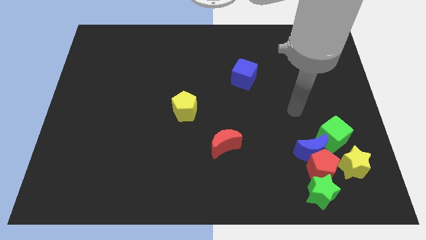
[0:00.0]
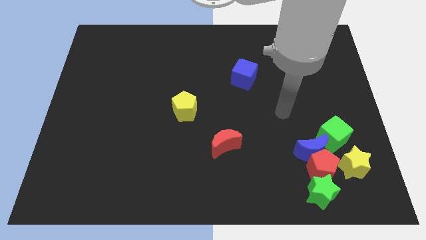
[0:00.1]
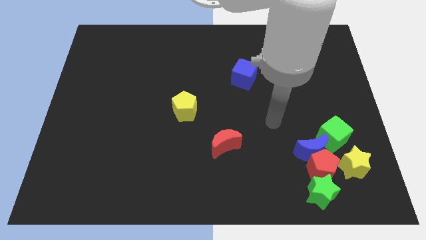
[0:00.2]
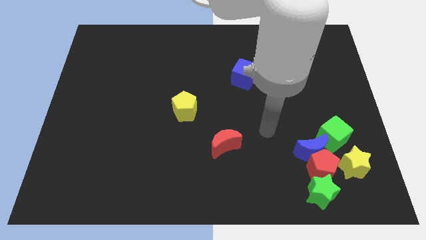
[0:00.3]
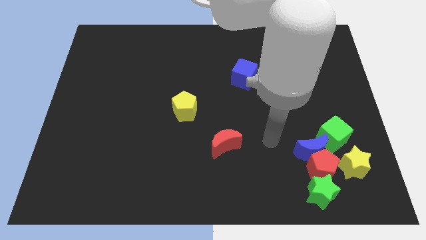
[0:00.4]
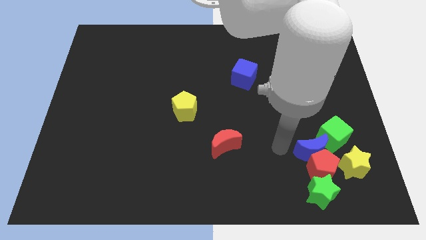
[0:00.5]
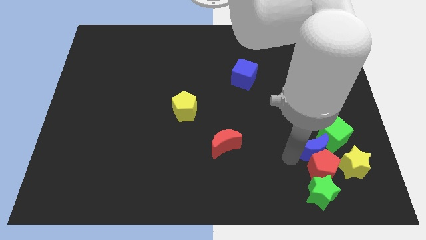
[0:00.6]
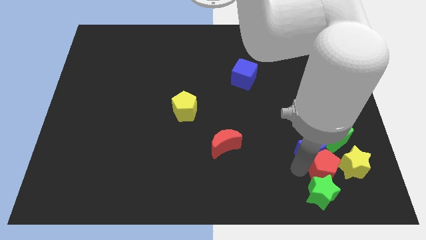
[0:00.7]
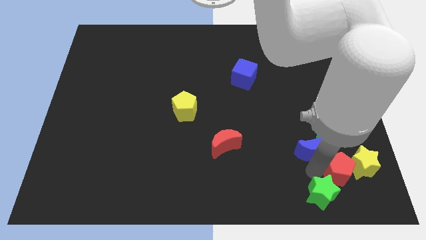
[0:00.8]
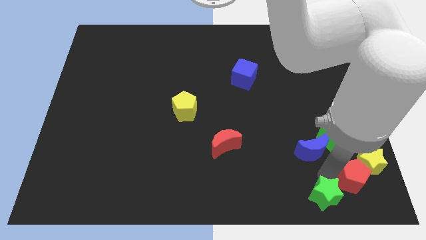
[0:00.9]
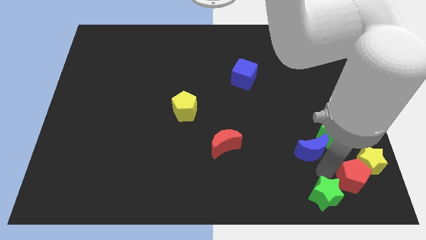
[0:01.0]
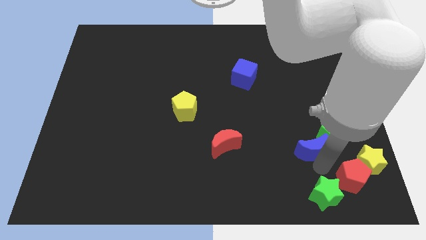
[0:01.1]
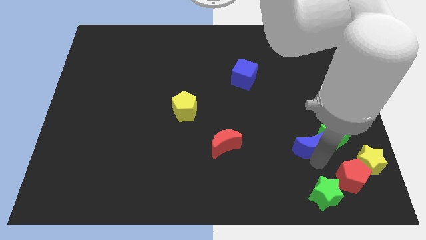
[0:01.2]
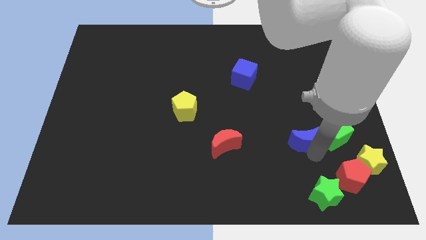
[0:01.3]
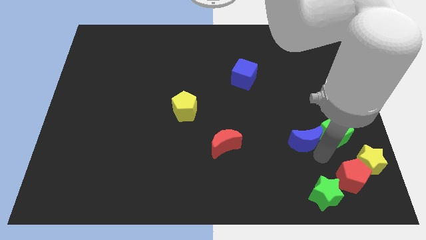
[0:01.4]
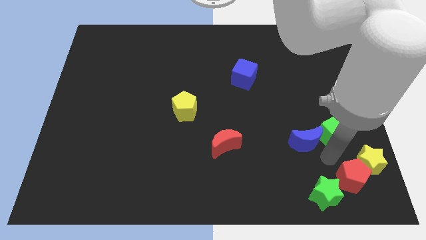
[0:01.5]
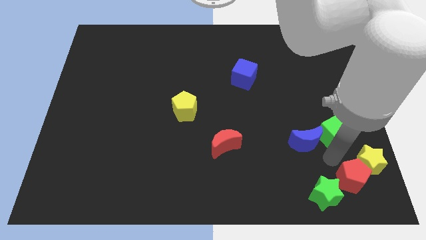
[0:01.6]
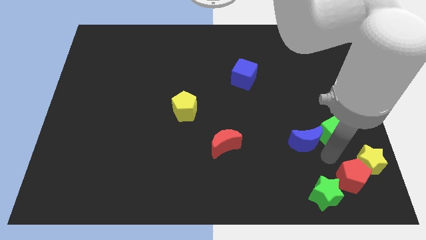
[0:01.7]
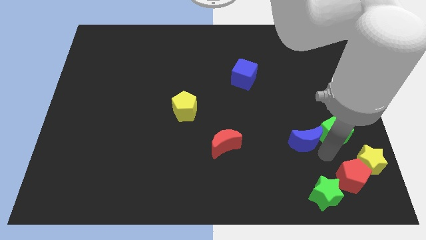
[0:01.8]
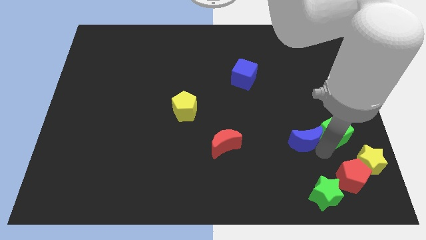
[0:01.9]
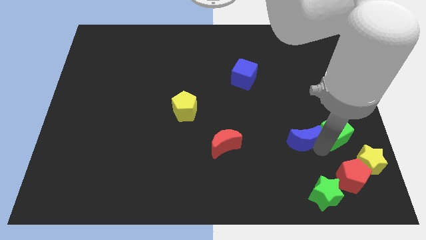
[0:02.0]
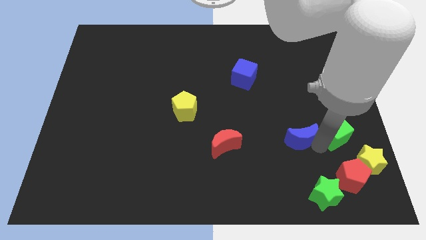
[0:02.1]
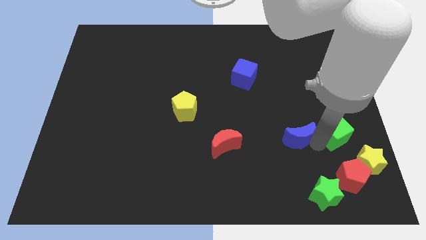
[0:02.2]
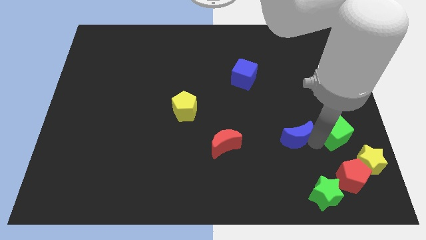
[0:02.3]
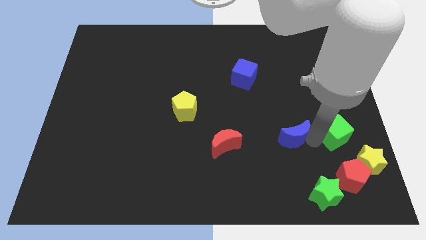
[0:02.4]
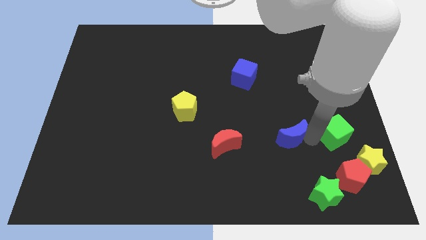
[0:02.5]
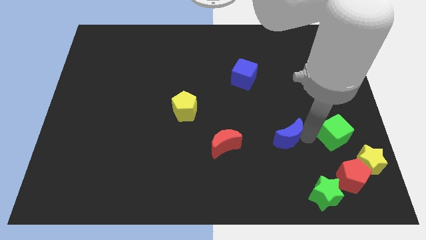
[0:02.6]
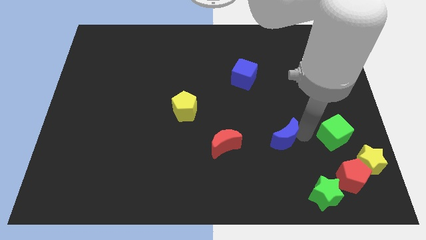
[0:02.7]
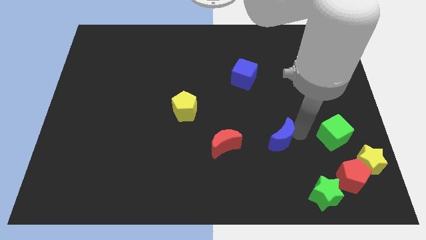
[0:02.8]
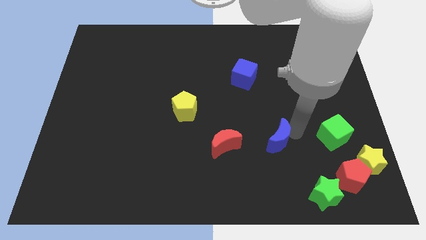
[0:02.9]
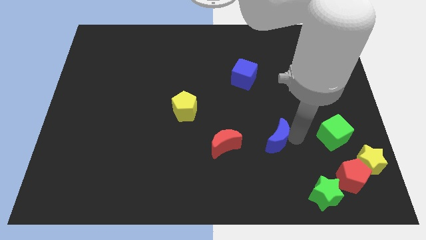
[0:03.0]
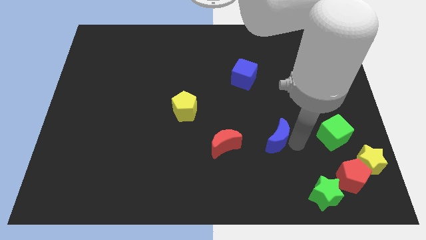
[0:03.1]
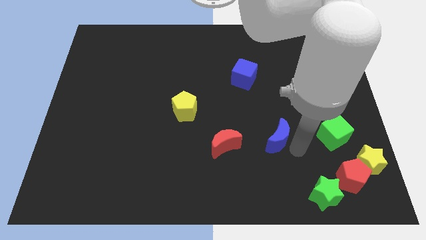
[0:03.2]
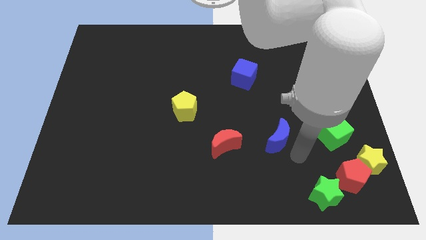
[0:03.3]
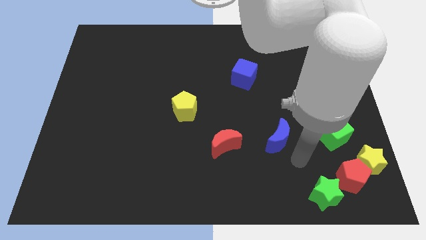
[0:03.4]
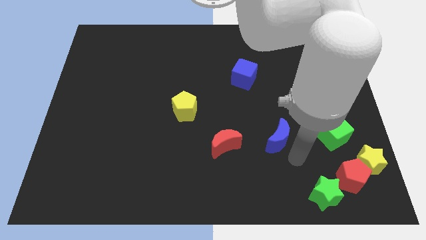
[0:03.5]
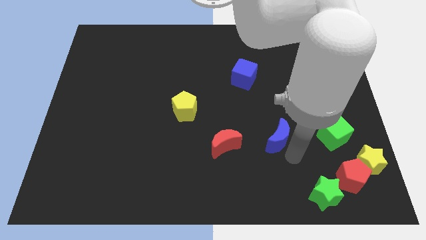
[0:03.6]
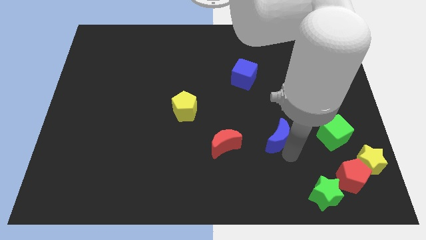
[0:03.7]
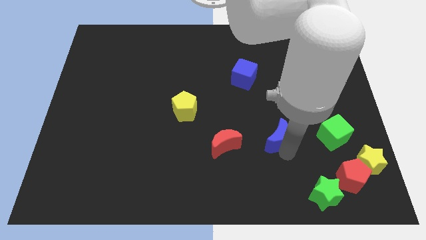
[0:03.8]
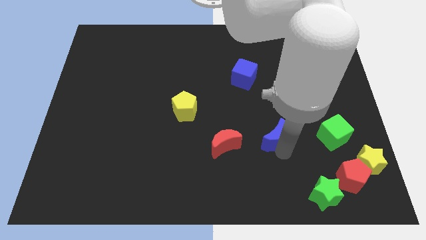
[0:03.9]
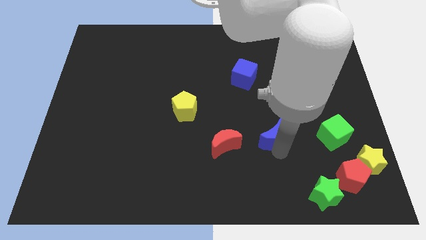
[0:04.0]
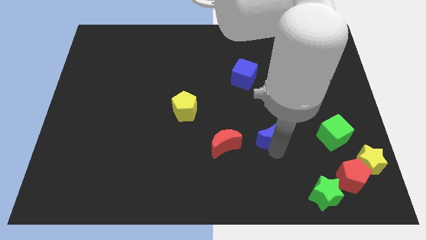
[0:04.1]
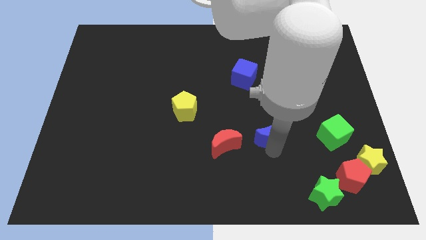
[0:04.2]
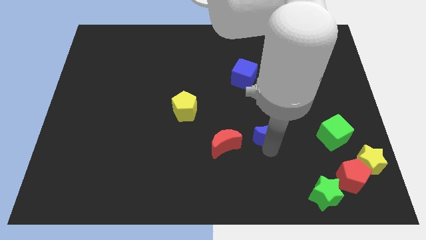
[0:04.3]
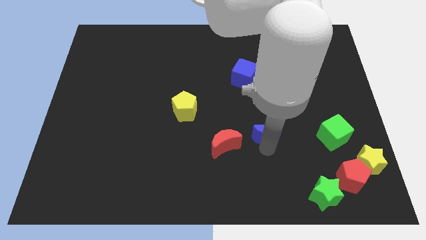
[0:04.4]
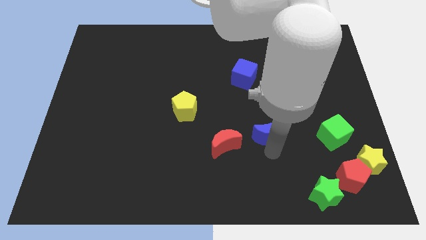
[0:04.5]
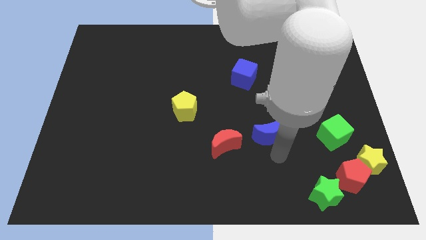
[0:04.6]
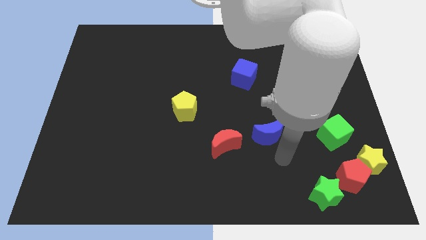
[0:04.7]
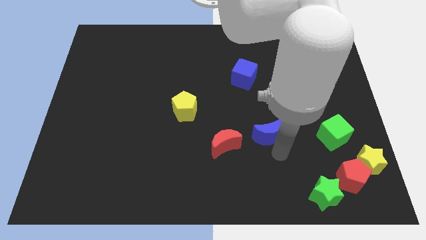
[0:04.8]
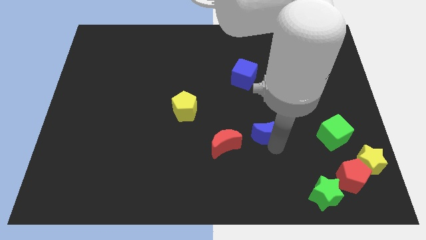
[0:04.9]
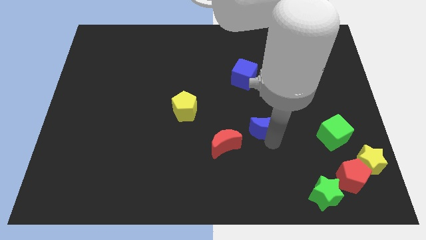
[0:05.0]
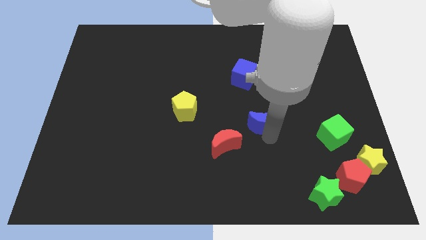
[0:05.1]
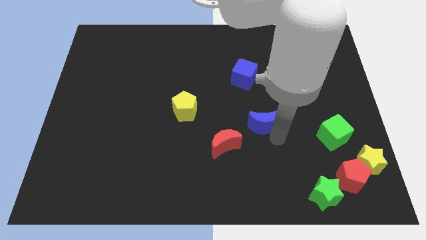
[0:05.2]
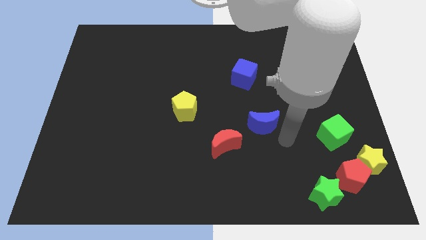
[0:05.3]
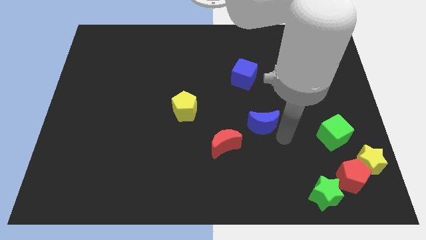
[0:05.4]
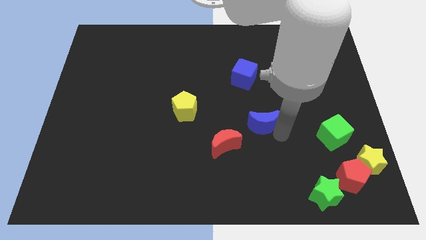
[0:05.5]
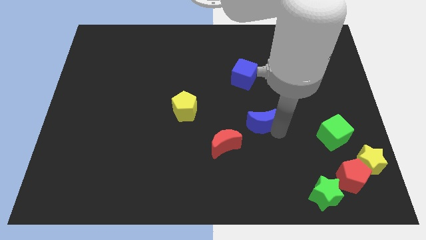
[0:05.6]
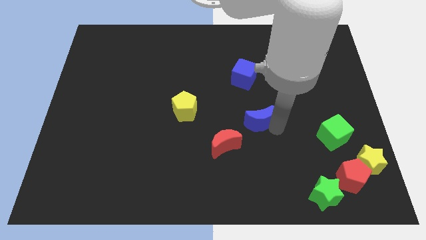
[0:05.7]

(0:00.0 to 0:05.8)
push the blue moon to the middle

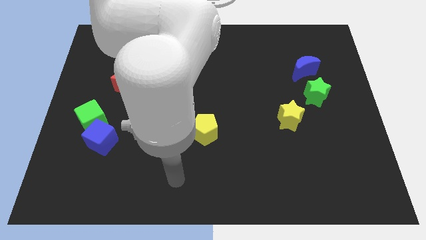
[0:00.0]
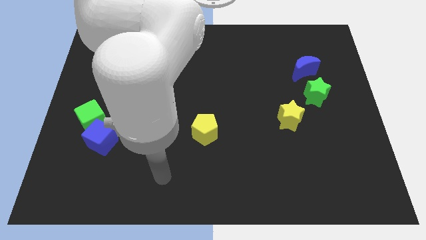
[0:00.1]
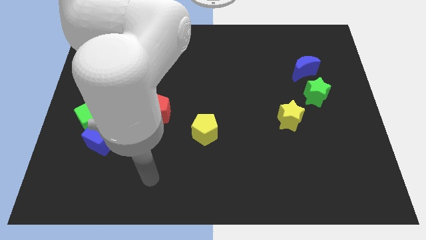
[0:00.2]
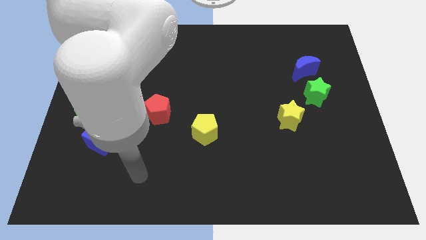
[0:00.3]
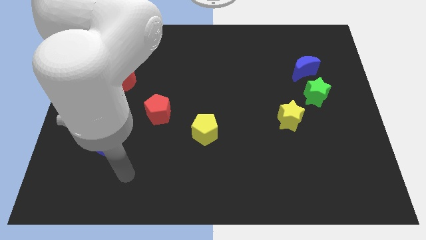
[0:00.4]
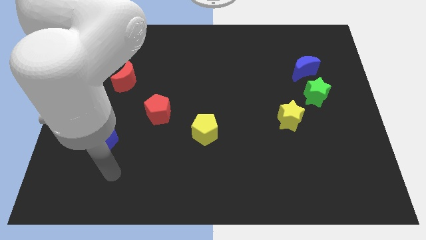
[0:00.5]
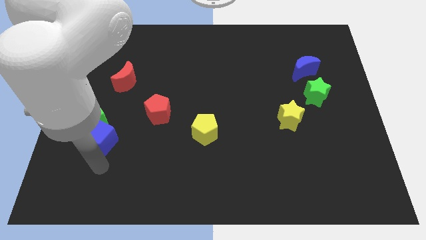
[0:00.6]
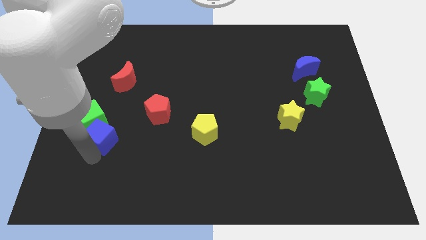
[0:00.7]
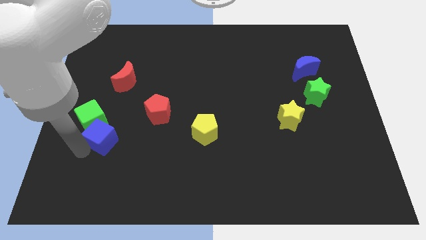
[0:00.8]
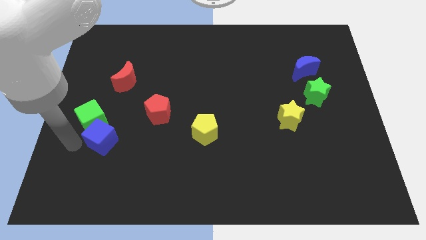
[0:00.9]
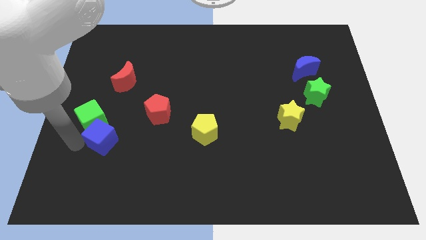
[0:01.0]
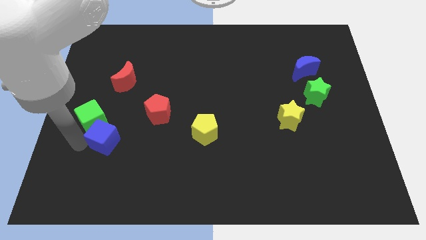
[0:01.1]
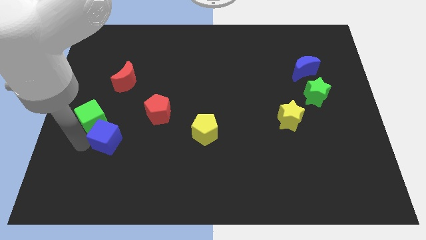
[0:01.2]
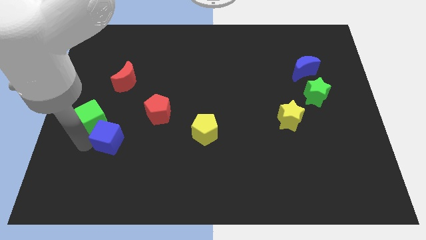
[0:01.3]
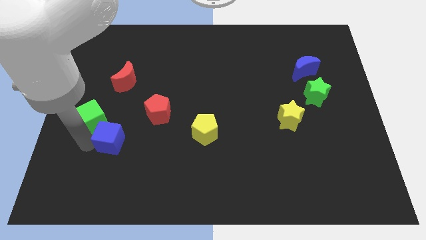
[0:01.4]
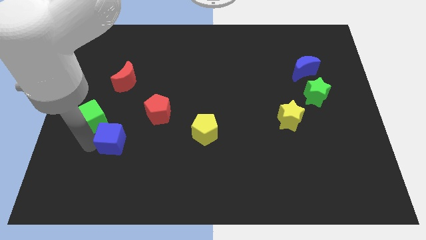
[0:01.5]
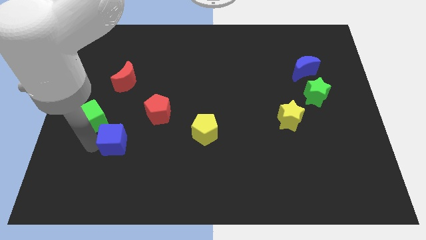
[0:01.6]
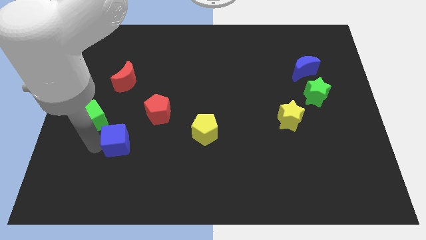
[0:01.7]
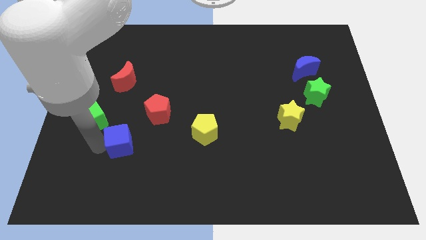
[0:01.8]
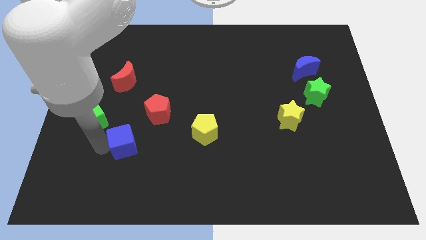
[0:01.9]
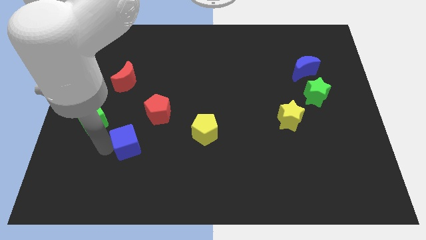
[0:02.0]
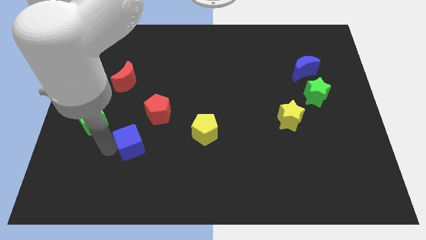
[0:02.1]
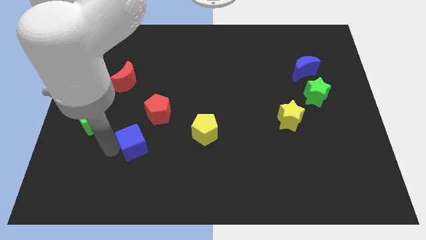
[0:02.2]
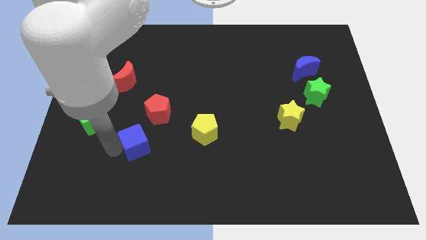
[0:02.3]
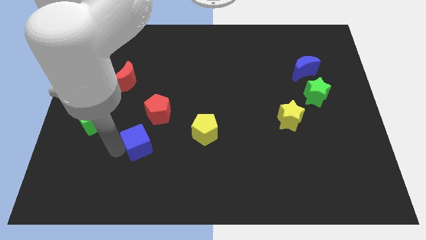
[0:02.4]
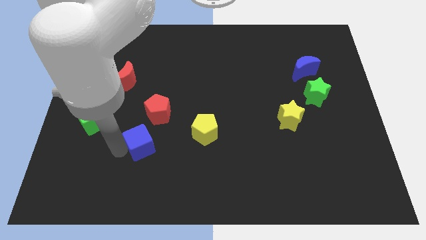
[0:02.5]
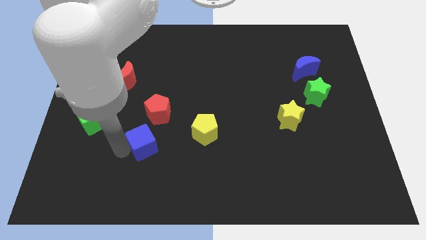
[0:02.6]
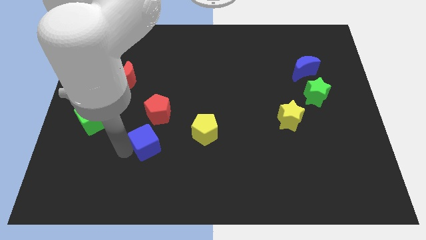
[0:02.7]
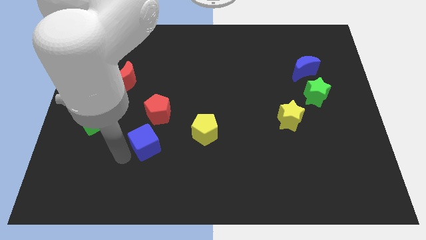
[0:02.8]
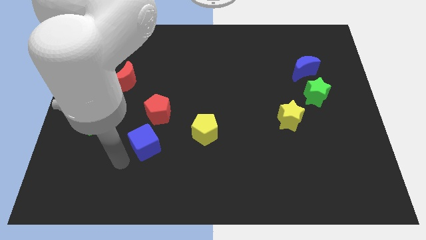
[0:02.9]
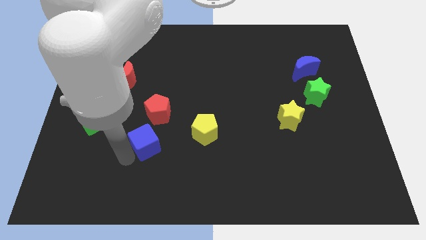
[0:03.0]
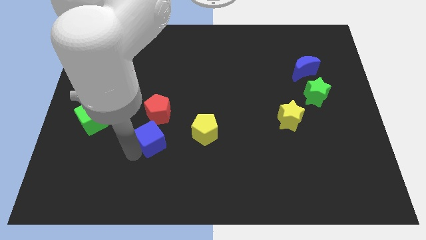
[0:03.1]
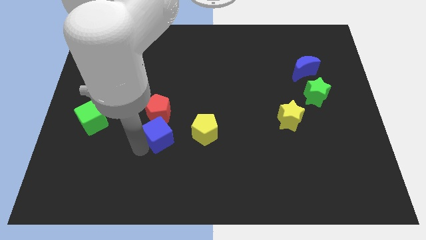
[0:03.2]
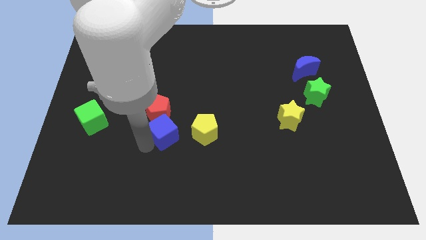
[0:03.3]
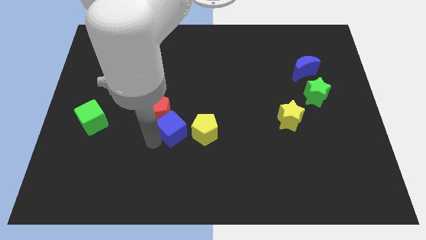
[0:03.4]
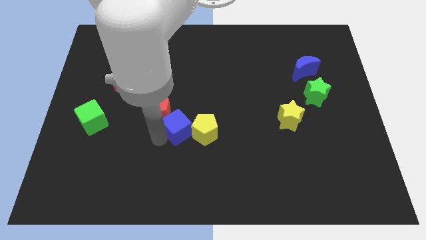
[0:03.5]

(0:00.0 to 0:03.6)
put the blue cube to the middle
